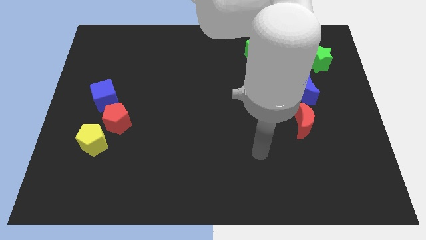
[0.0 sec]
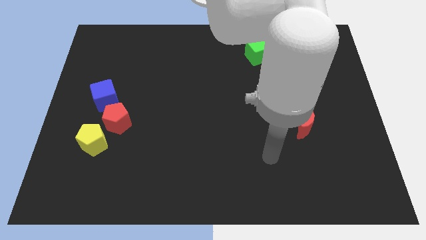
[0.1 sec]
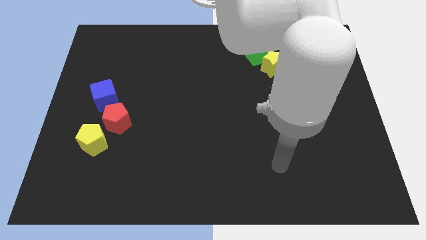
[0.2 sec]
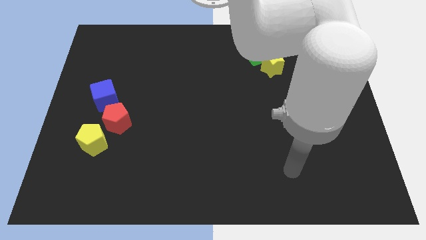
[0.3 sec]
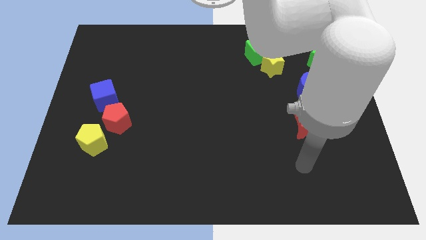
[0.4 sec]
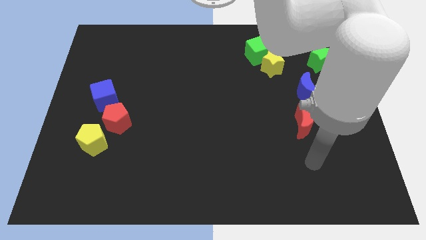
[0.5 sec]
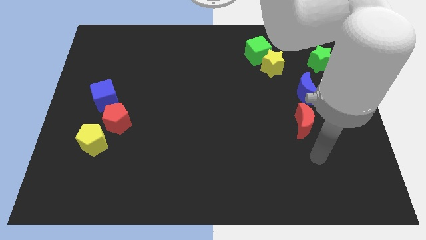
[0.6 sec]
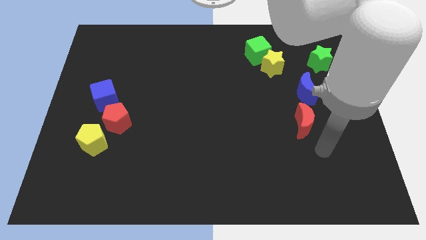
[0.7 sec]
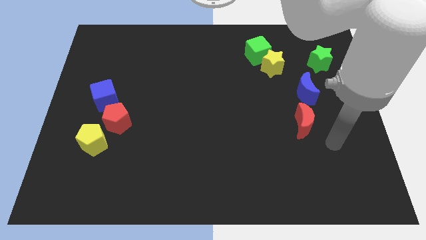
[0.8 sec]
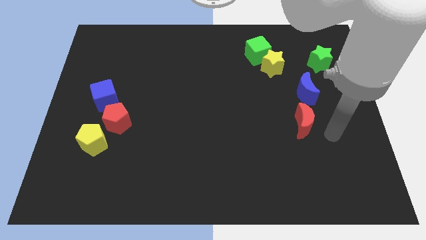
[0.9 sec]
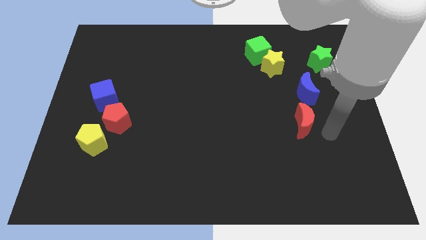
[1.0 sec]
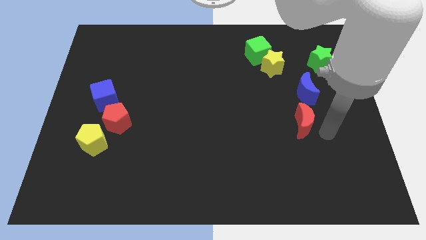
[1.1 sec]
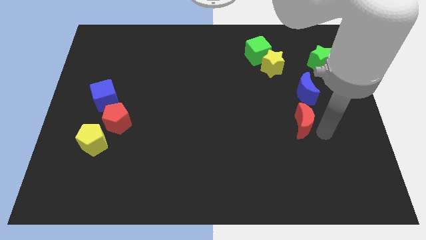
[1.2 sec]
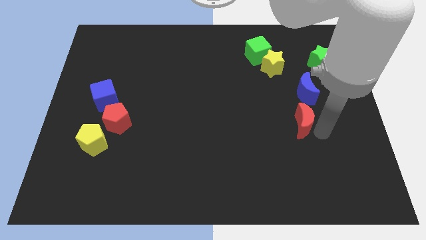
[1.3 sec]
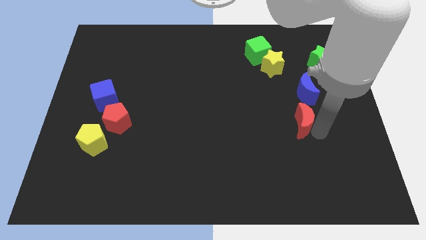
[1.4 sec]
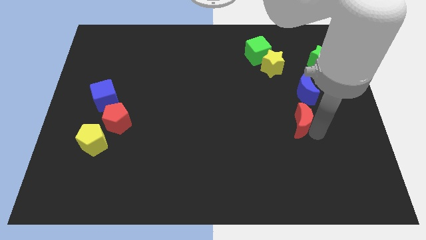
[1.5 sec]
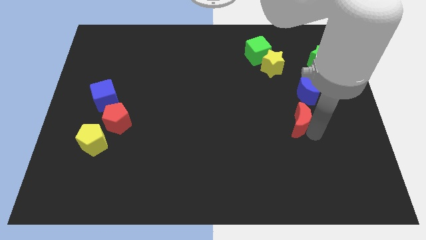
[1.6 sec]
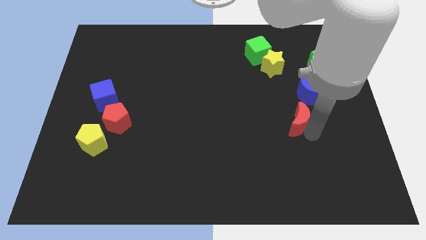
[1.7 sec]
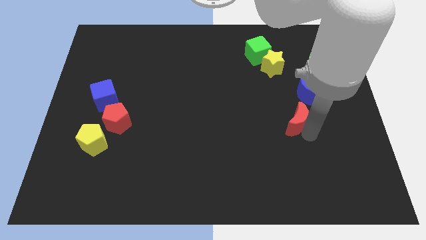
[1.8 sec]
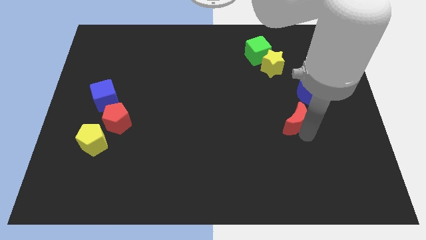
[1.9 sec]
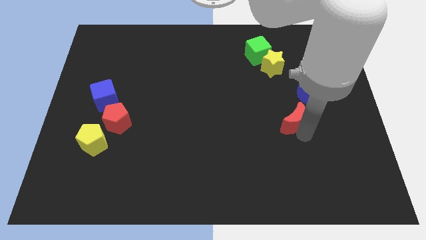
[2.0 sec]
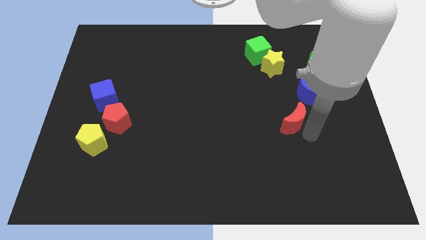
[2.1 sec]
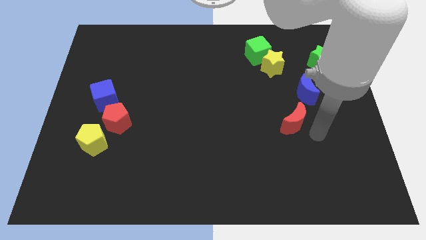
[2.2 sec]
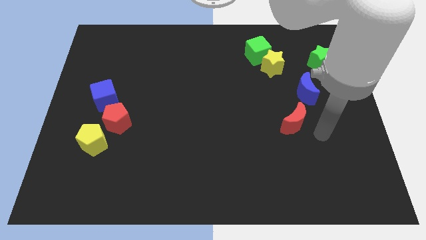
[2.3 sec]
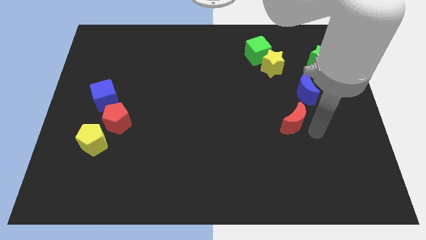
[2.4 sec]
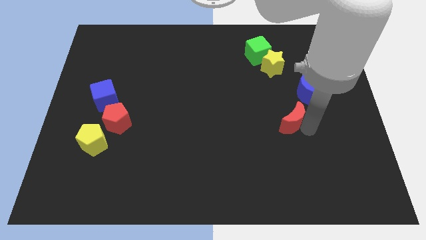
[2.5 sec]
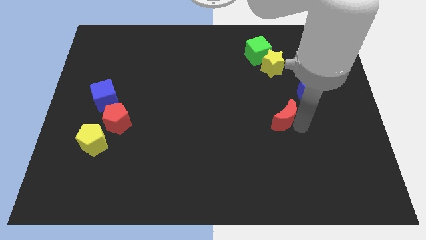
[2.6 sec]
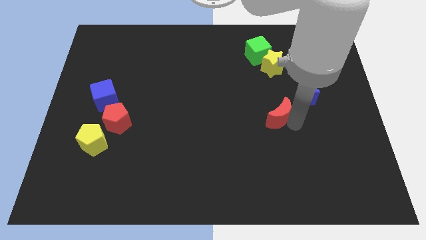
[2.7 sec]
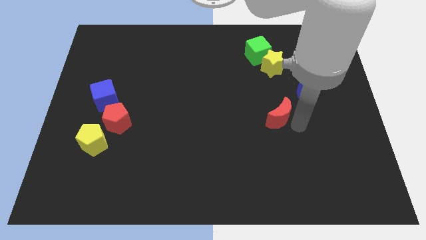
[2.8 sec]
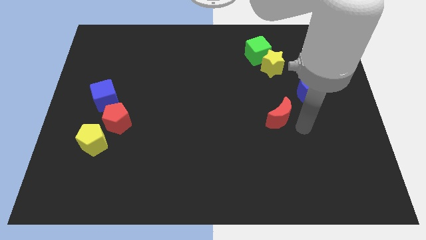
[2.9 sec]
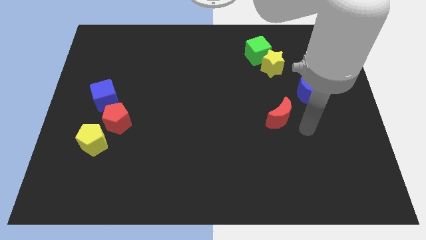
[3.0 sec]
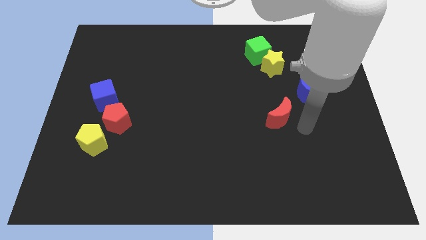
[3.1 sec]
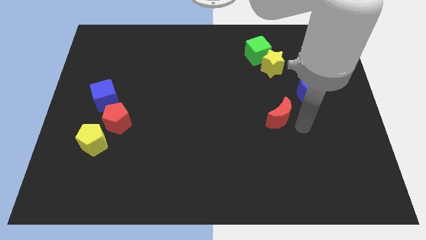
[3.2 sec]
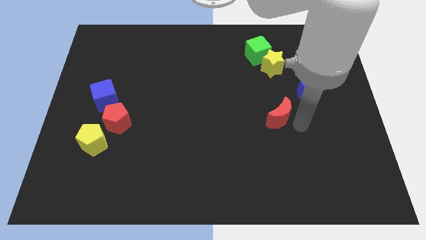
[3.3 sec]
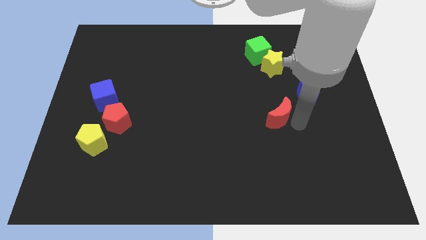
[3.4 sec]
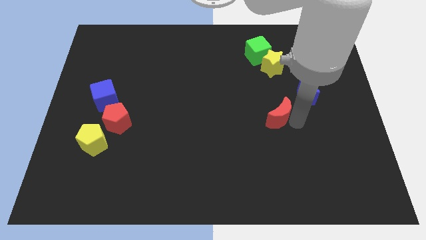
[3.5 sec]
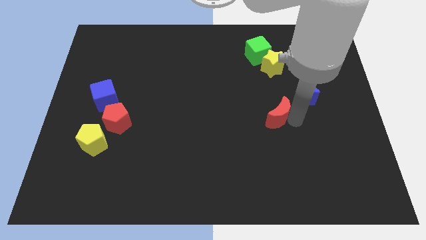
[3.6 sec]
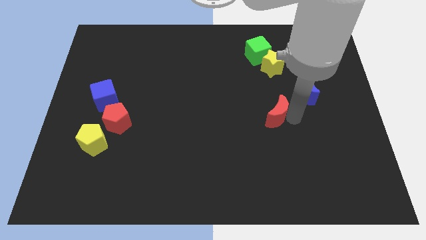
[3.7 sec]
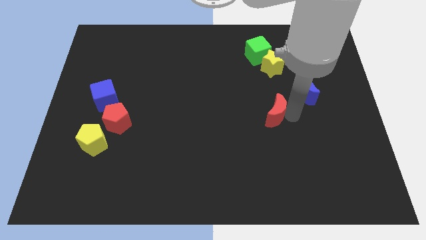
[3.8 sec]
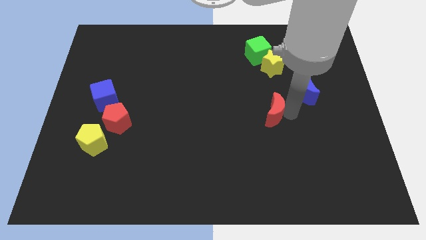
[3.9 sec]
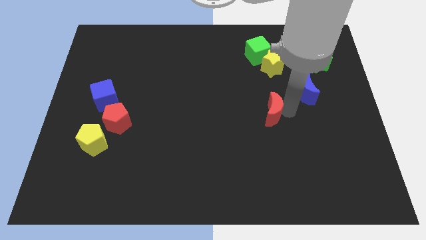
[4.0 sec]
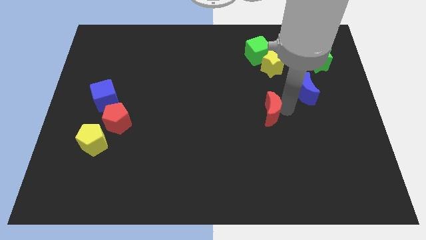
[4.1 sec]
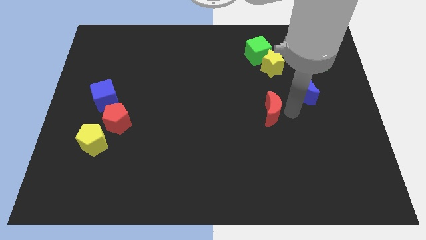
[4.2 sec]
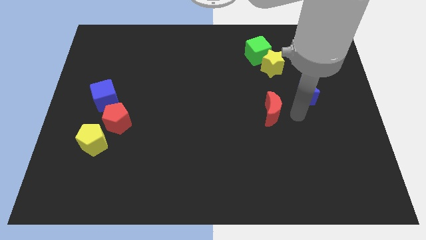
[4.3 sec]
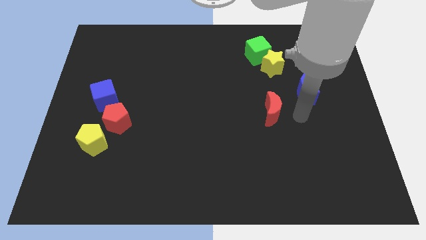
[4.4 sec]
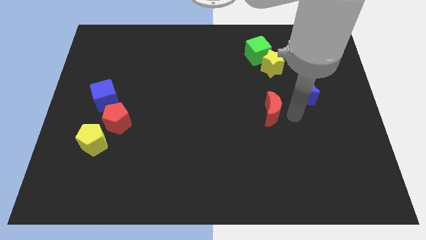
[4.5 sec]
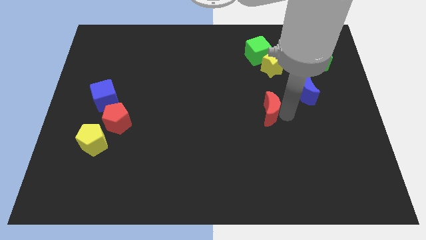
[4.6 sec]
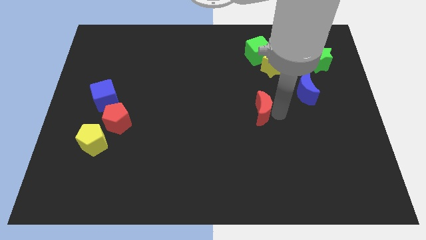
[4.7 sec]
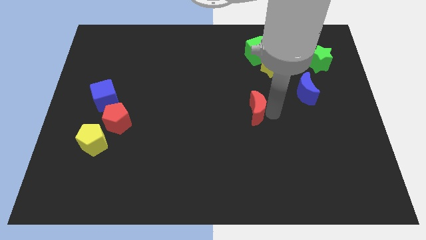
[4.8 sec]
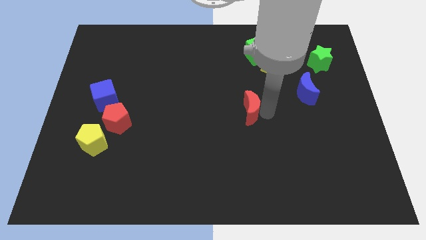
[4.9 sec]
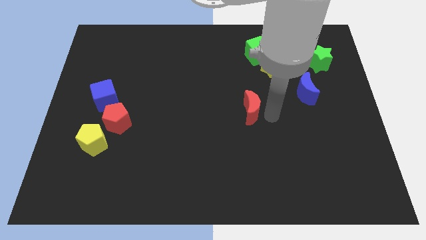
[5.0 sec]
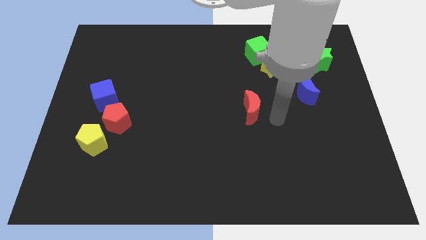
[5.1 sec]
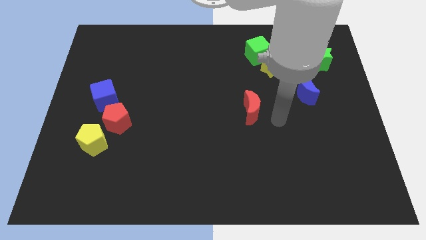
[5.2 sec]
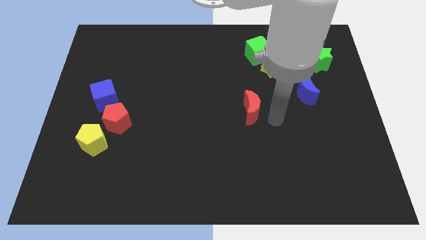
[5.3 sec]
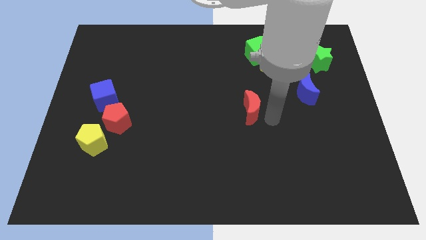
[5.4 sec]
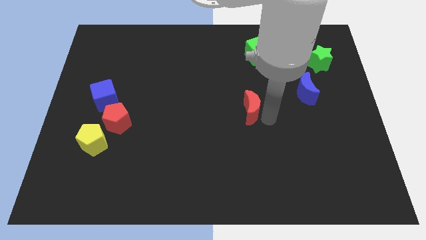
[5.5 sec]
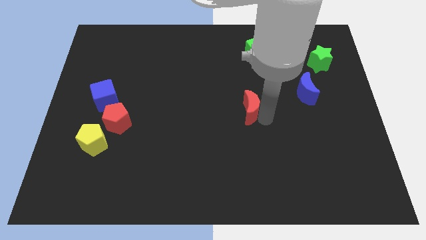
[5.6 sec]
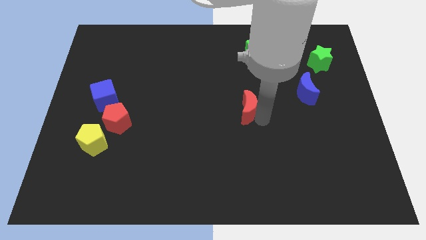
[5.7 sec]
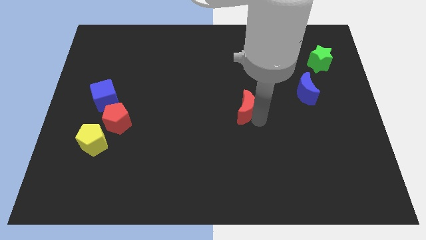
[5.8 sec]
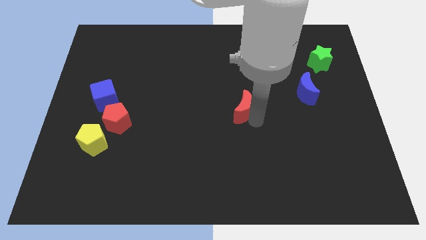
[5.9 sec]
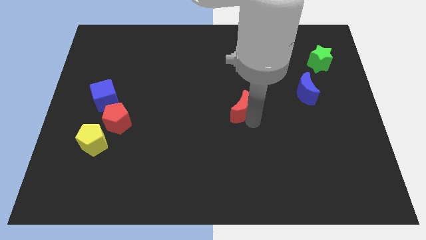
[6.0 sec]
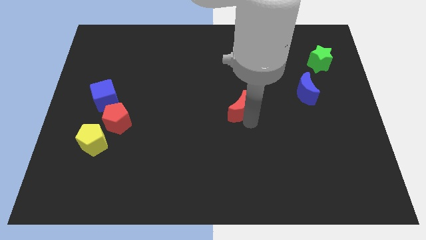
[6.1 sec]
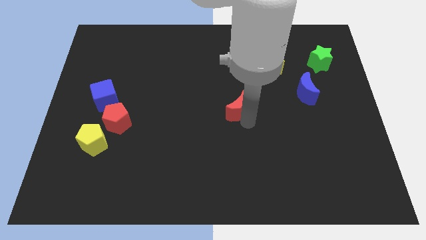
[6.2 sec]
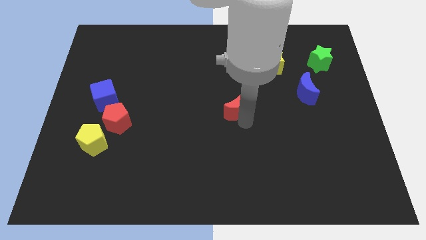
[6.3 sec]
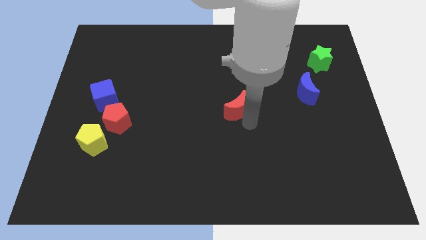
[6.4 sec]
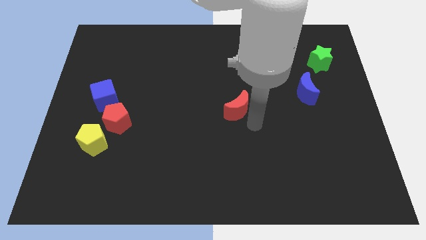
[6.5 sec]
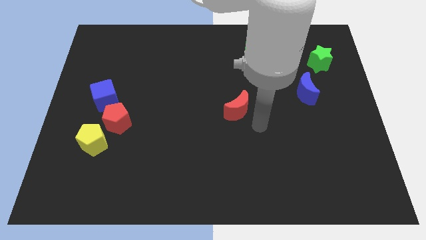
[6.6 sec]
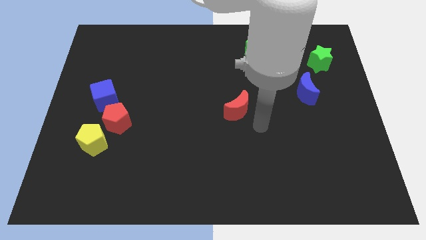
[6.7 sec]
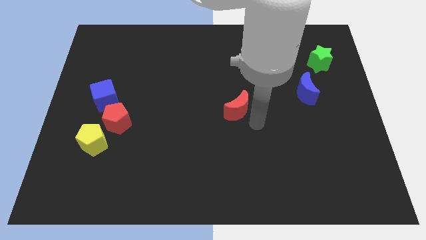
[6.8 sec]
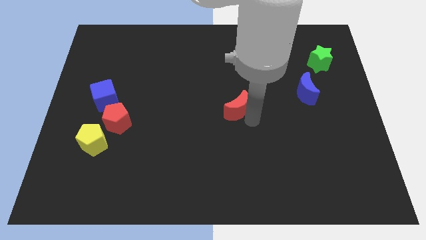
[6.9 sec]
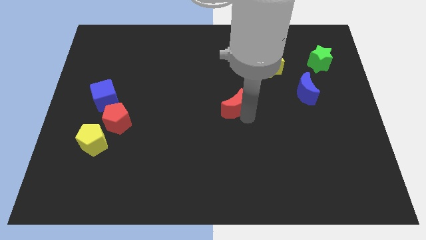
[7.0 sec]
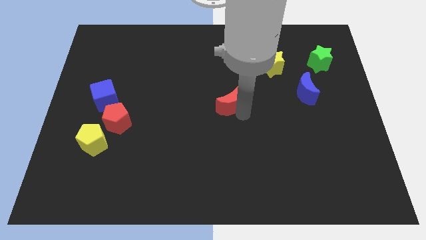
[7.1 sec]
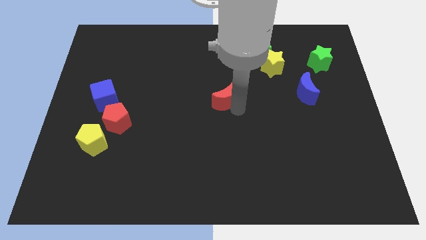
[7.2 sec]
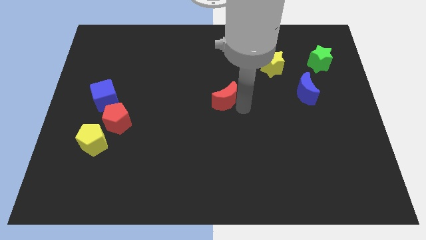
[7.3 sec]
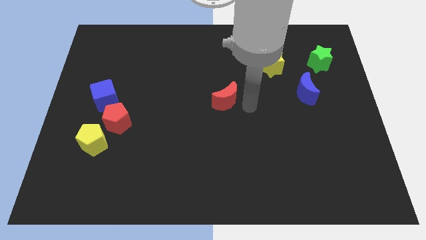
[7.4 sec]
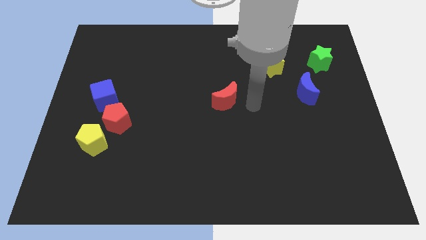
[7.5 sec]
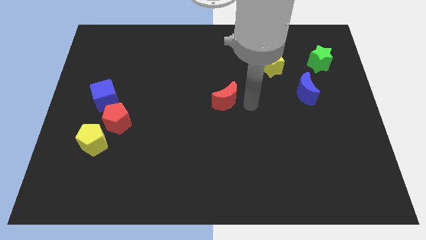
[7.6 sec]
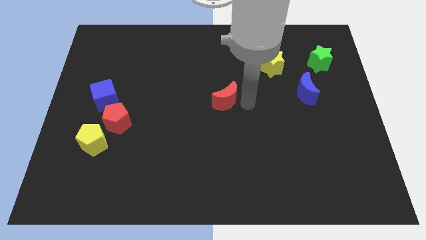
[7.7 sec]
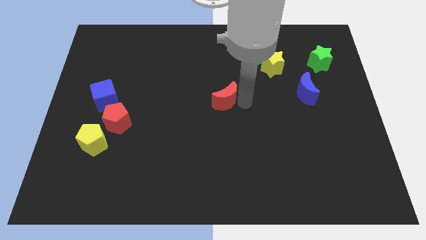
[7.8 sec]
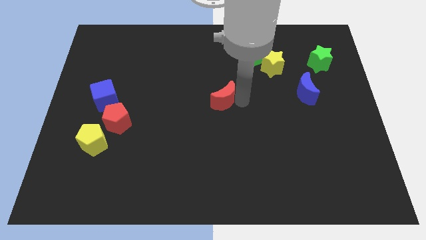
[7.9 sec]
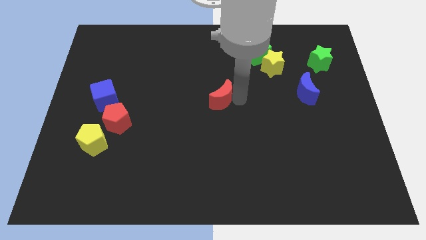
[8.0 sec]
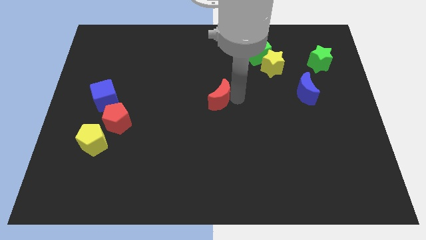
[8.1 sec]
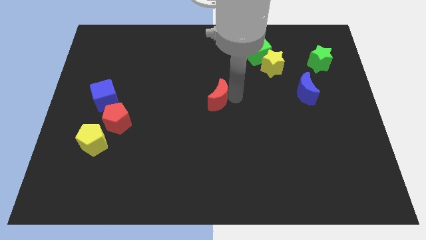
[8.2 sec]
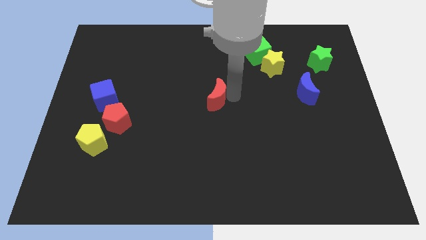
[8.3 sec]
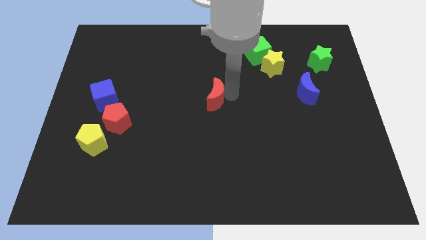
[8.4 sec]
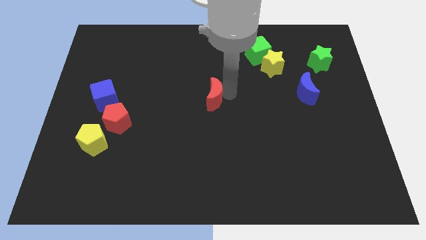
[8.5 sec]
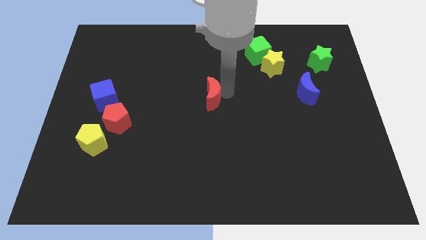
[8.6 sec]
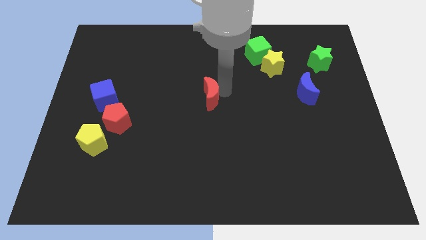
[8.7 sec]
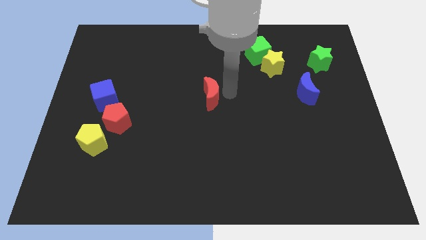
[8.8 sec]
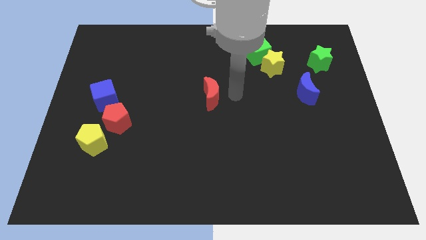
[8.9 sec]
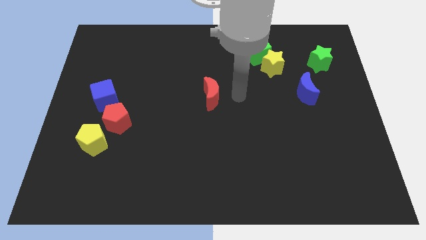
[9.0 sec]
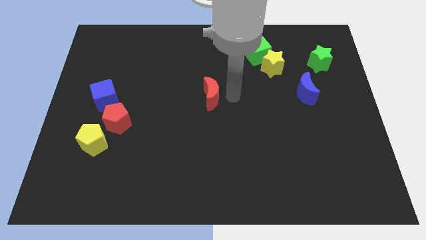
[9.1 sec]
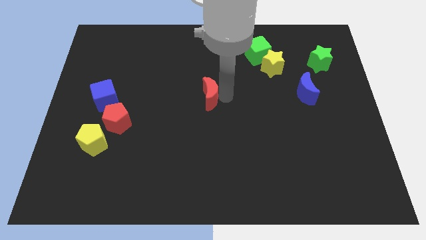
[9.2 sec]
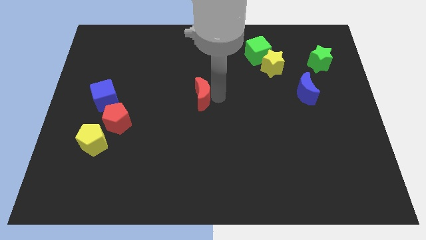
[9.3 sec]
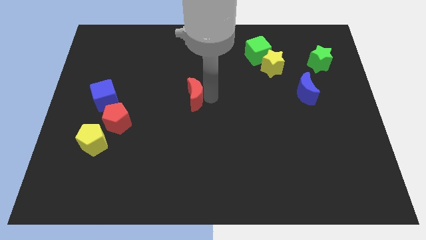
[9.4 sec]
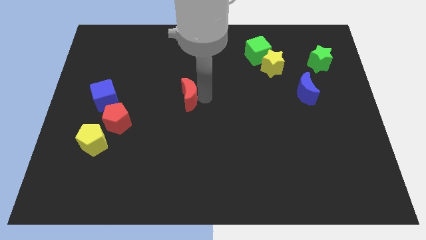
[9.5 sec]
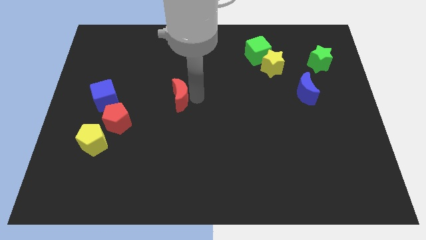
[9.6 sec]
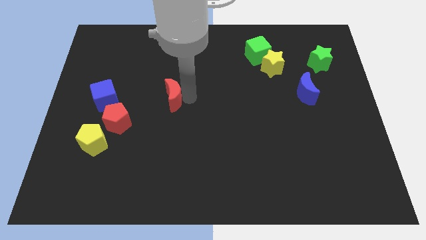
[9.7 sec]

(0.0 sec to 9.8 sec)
move the red moon to the right side of the blue cube
